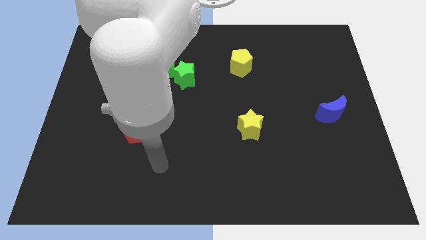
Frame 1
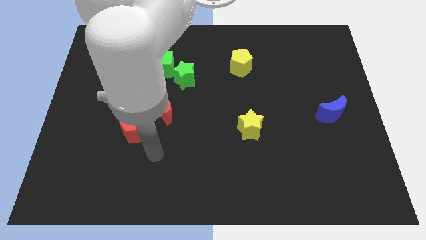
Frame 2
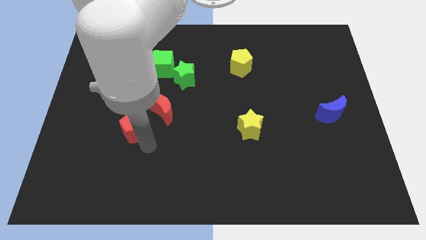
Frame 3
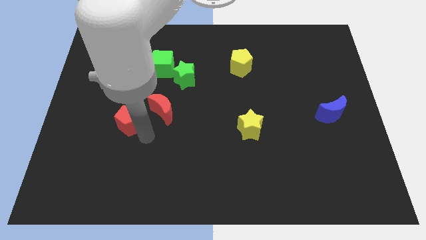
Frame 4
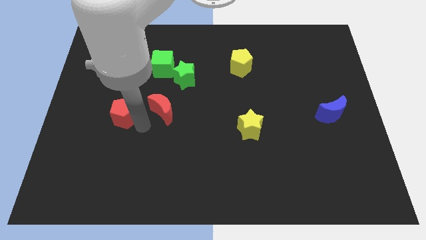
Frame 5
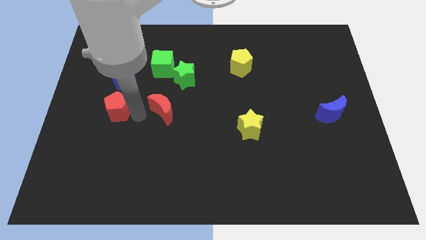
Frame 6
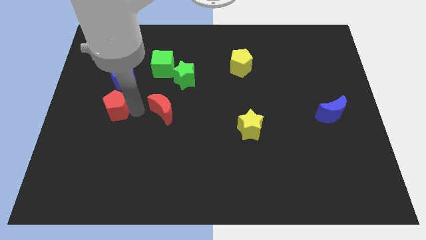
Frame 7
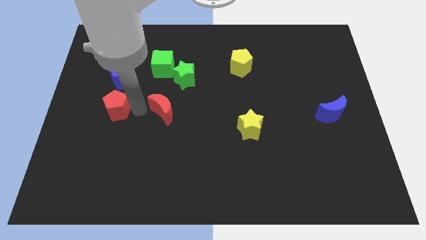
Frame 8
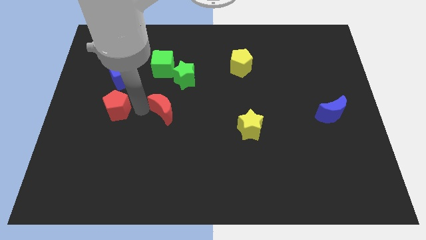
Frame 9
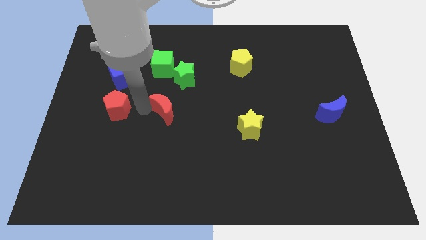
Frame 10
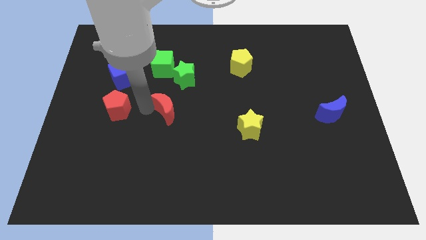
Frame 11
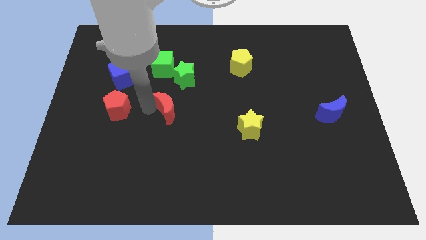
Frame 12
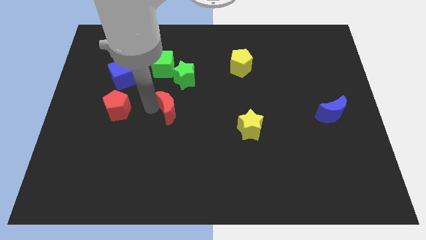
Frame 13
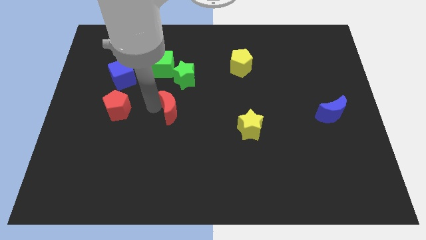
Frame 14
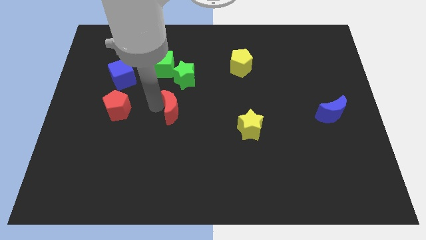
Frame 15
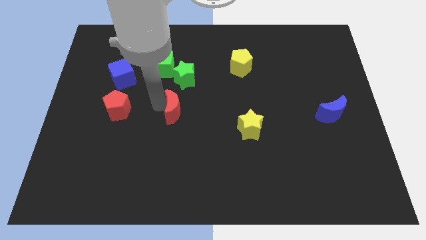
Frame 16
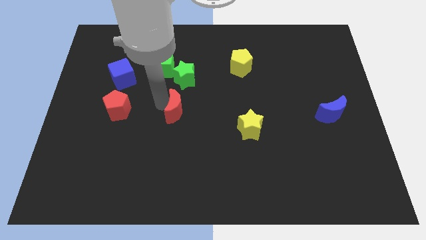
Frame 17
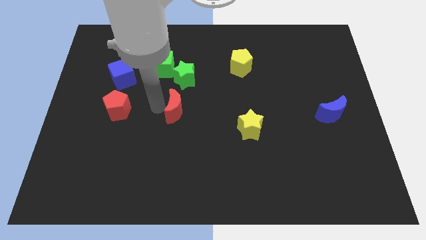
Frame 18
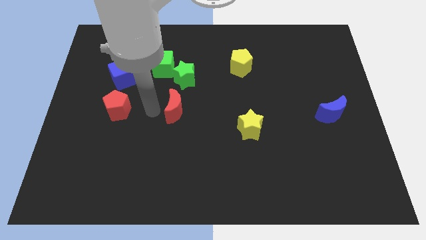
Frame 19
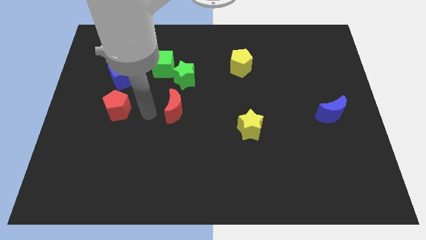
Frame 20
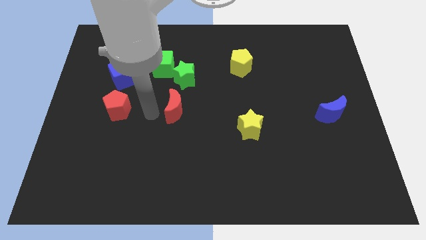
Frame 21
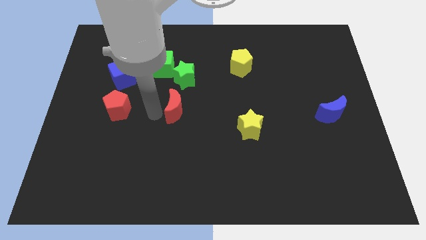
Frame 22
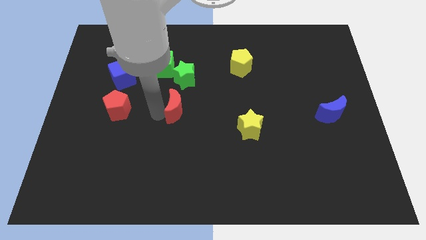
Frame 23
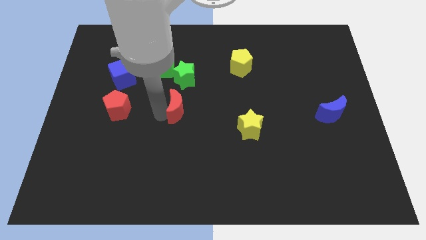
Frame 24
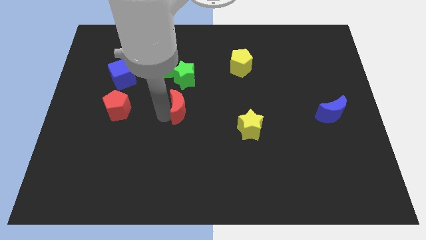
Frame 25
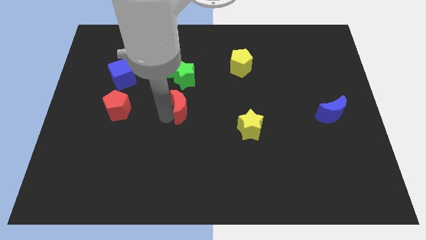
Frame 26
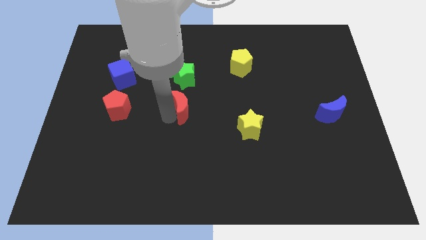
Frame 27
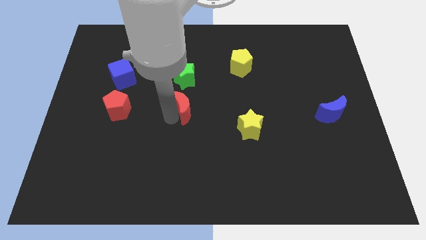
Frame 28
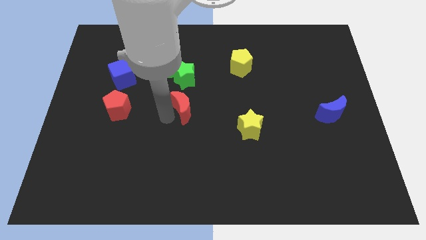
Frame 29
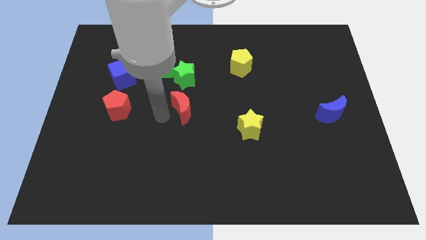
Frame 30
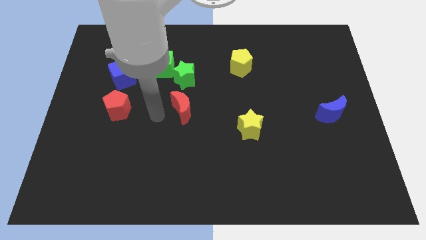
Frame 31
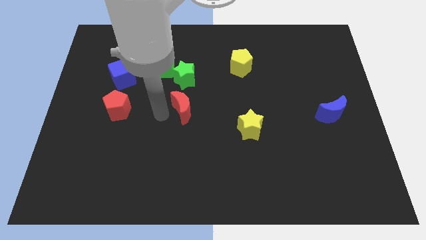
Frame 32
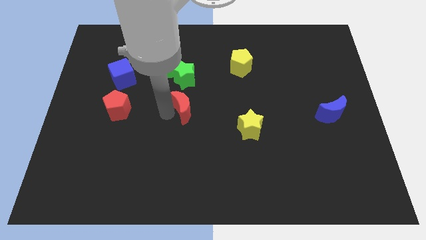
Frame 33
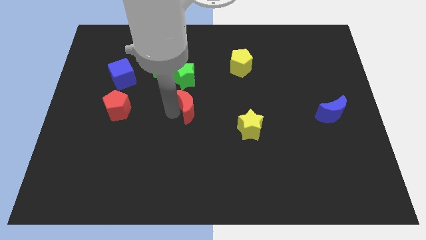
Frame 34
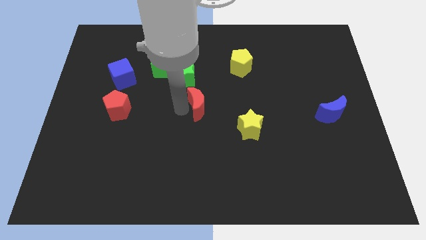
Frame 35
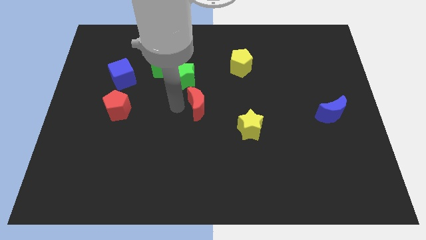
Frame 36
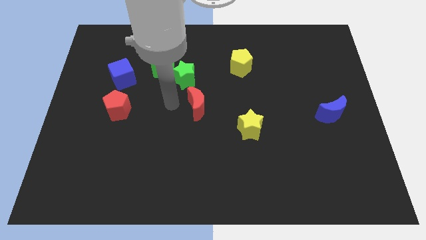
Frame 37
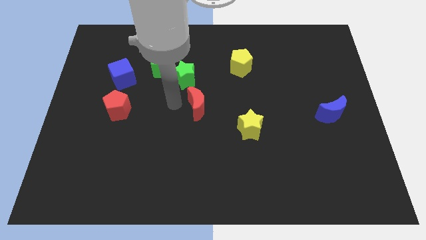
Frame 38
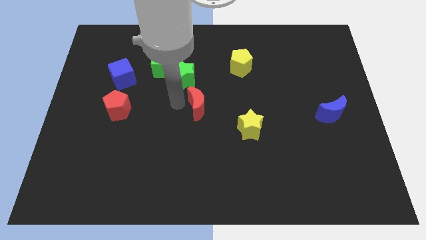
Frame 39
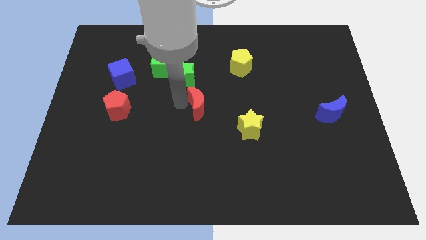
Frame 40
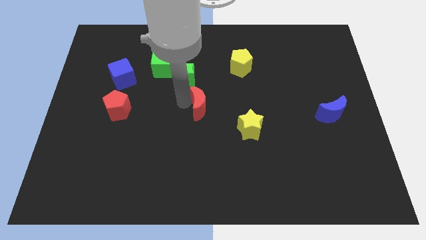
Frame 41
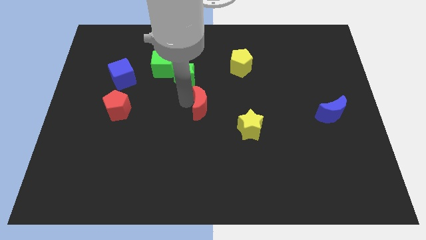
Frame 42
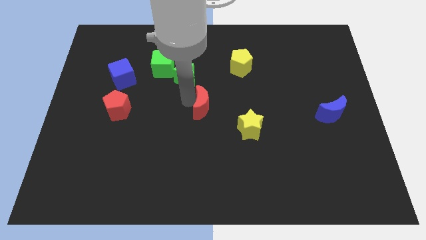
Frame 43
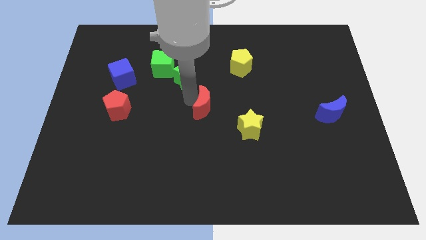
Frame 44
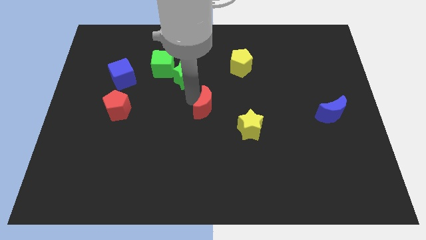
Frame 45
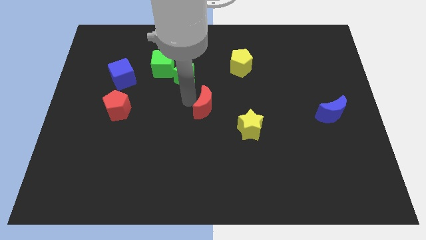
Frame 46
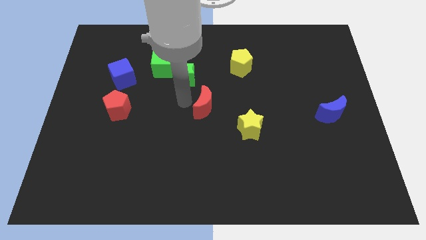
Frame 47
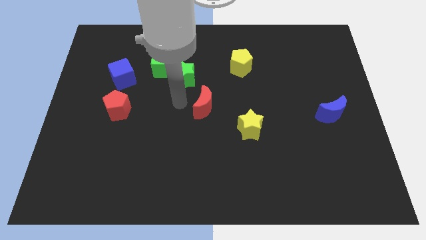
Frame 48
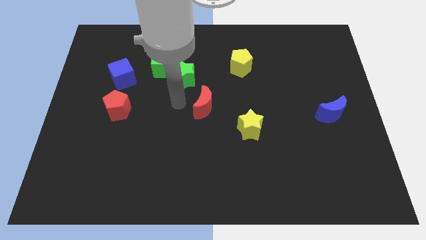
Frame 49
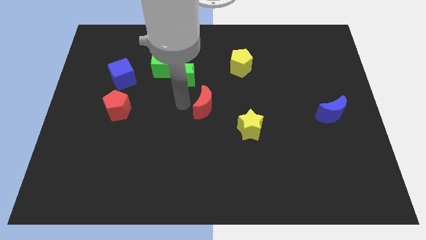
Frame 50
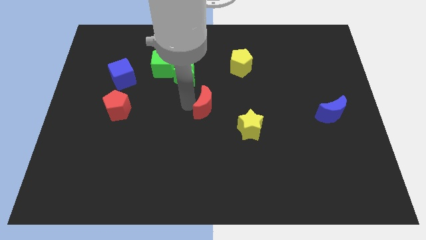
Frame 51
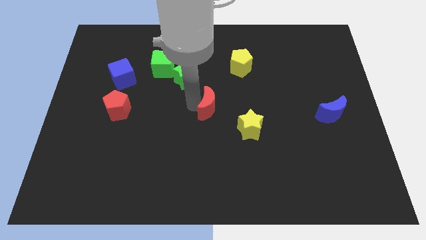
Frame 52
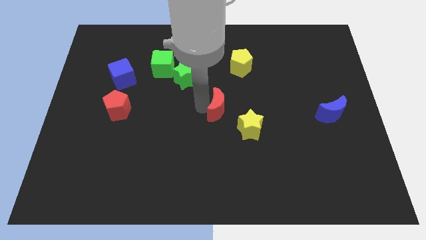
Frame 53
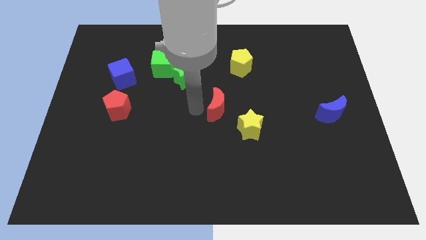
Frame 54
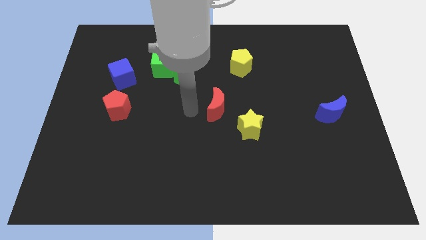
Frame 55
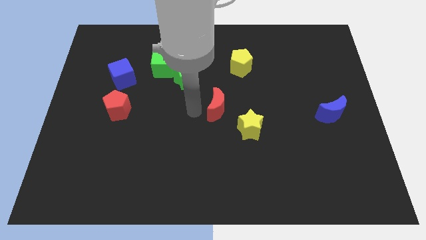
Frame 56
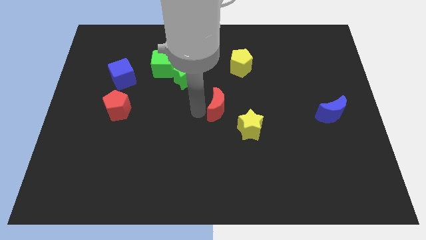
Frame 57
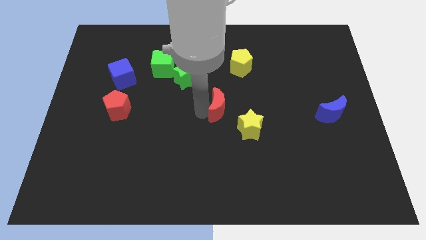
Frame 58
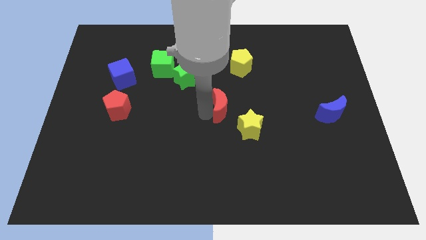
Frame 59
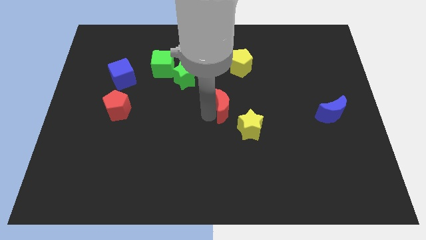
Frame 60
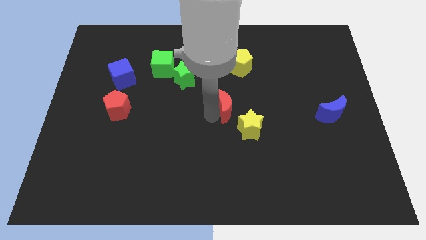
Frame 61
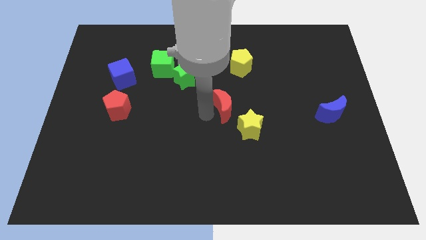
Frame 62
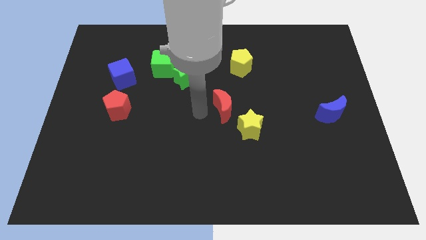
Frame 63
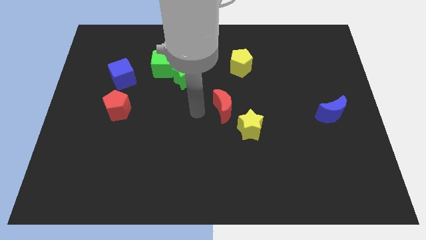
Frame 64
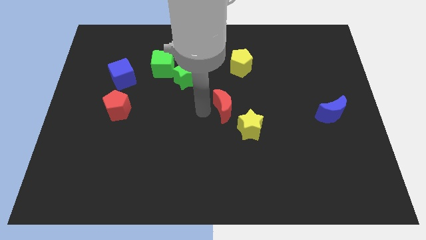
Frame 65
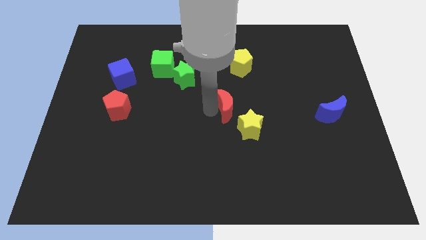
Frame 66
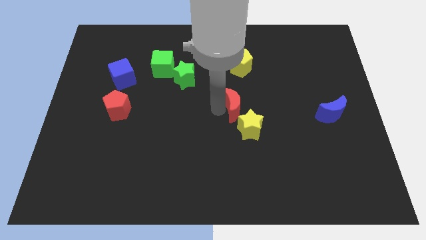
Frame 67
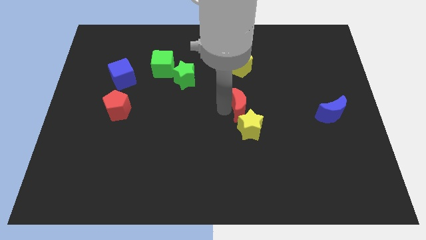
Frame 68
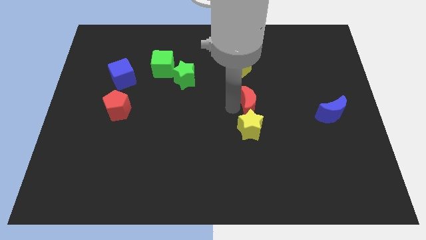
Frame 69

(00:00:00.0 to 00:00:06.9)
move the red moon right

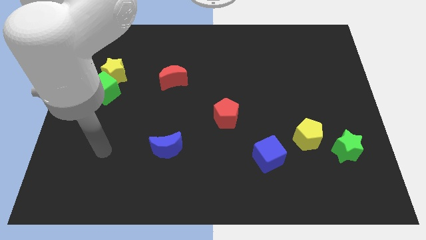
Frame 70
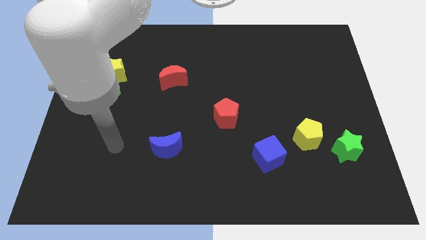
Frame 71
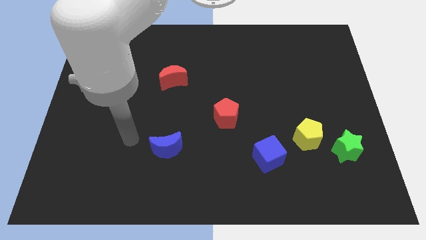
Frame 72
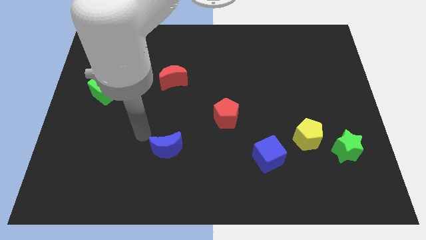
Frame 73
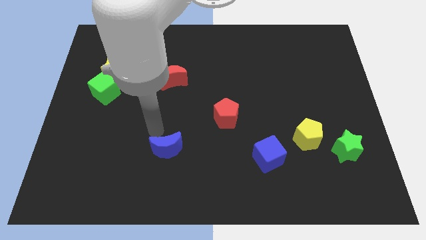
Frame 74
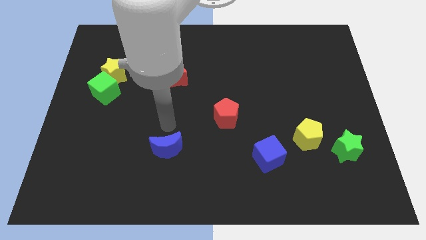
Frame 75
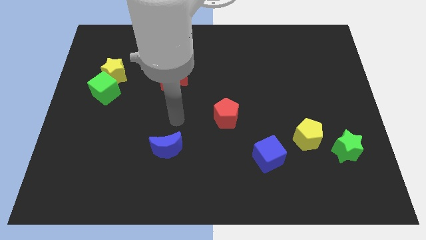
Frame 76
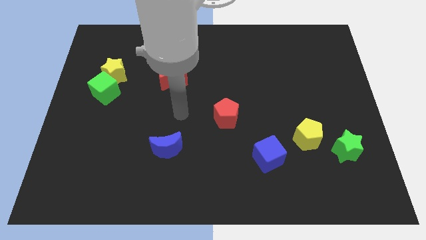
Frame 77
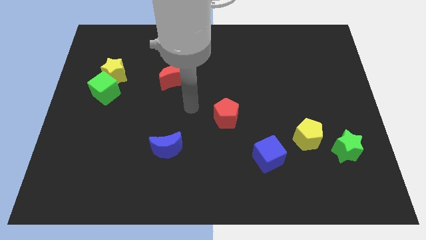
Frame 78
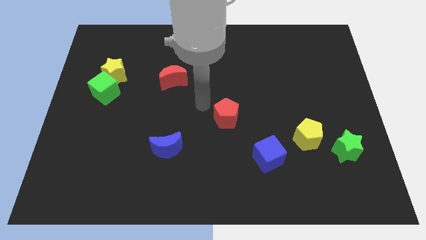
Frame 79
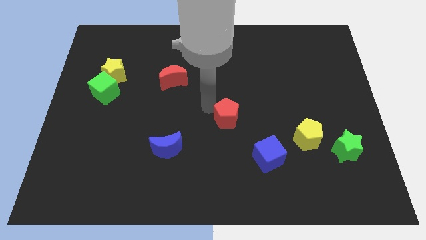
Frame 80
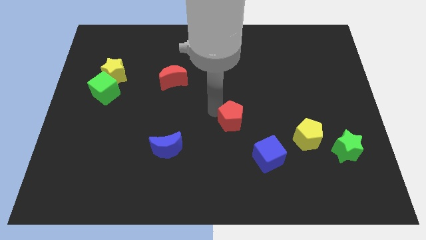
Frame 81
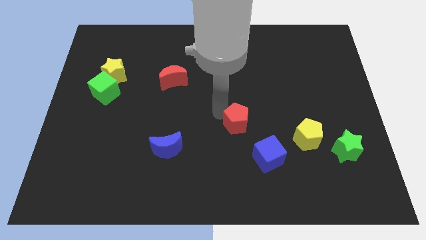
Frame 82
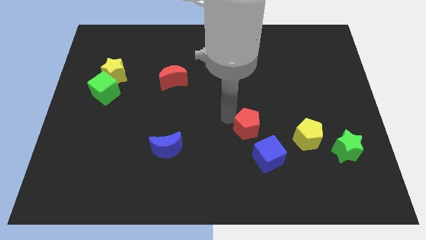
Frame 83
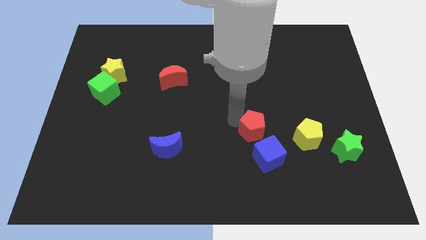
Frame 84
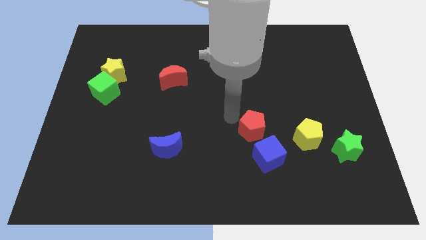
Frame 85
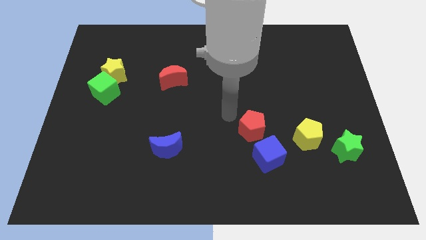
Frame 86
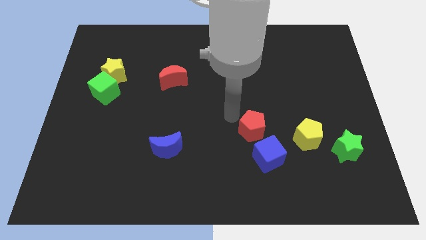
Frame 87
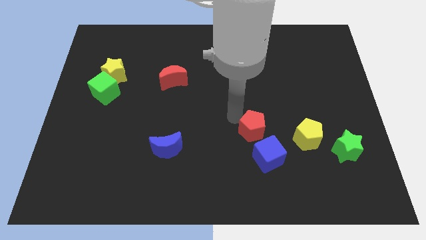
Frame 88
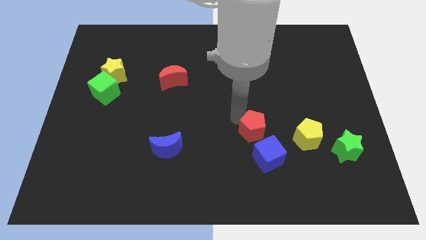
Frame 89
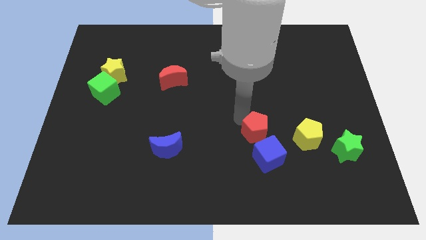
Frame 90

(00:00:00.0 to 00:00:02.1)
slightly move the red pentagon downwards and to the right diagonally
